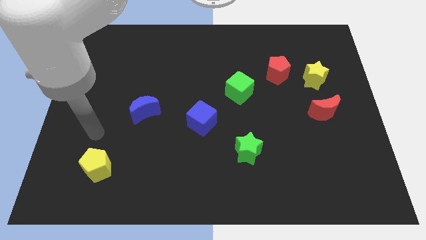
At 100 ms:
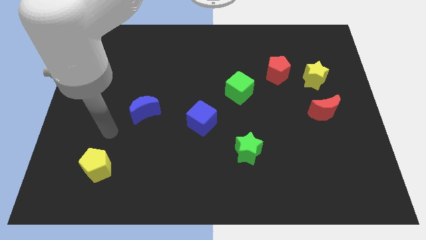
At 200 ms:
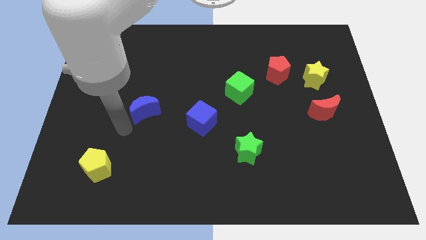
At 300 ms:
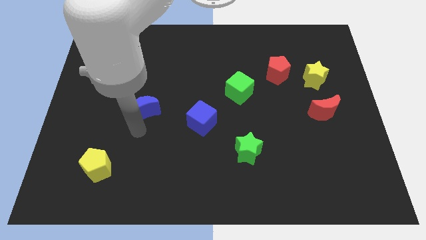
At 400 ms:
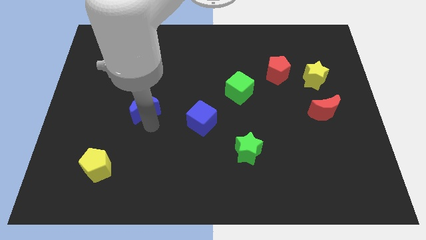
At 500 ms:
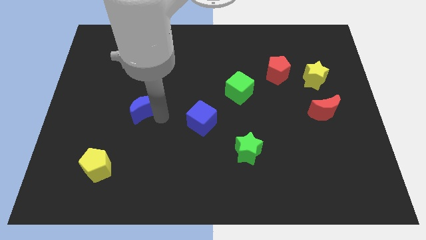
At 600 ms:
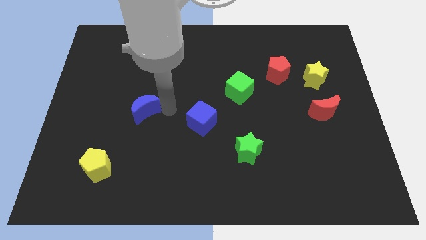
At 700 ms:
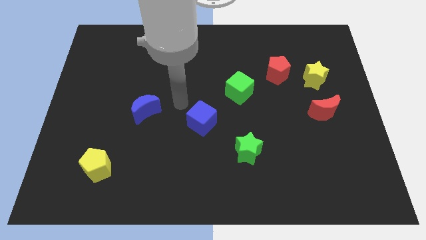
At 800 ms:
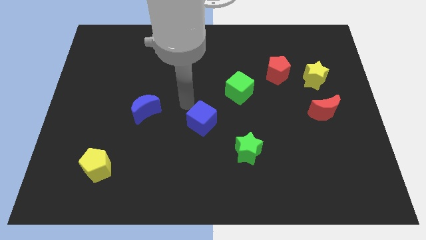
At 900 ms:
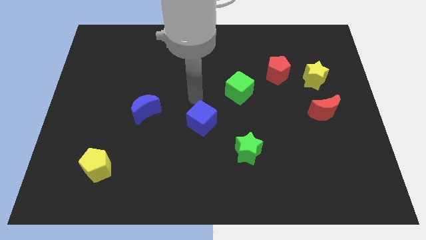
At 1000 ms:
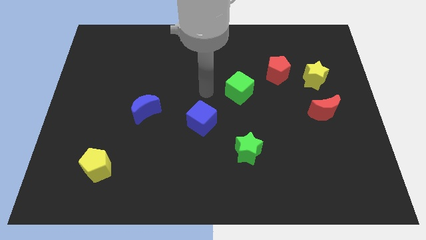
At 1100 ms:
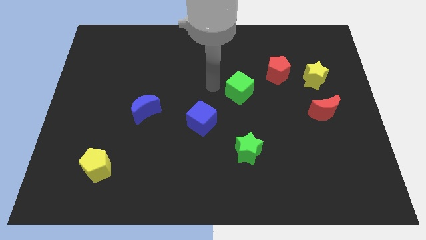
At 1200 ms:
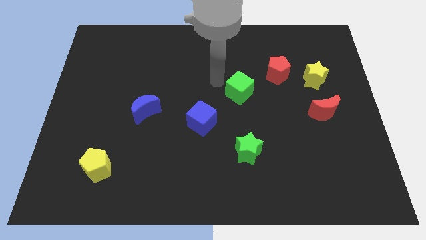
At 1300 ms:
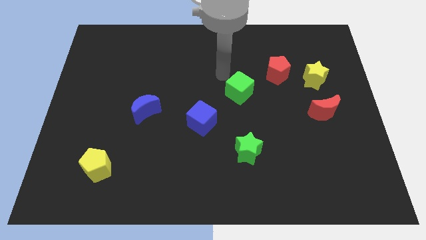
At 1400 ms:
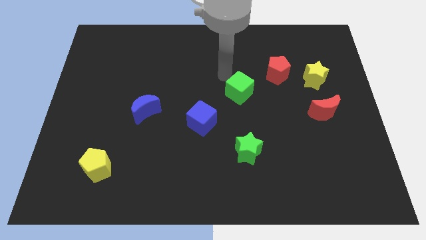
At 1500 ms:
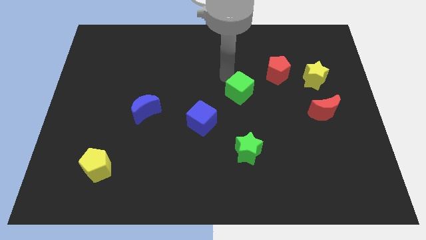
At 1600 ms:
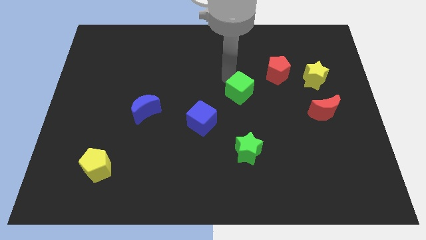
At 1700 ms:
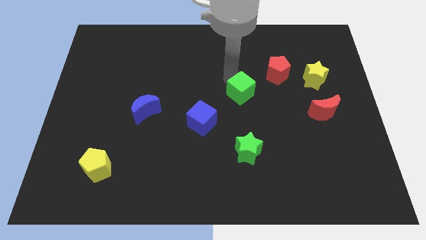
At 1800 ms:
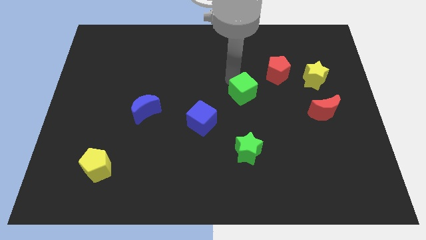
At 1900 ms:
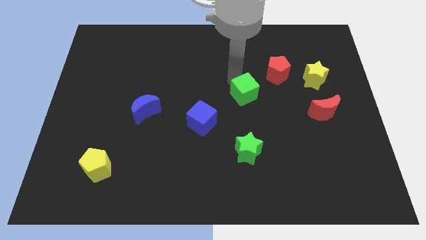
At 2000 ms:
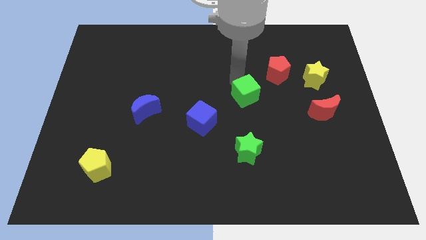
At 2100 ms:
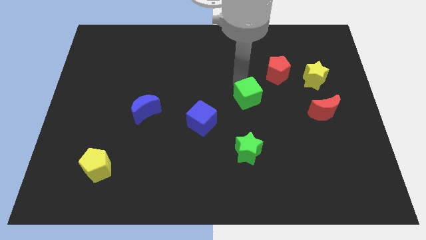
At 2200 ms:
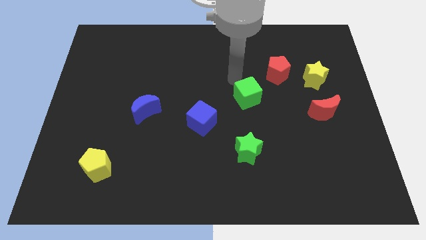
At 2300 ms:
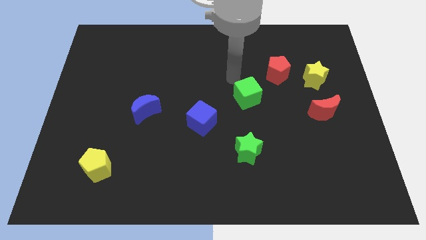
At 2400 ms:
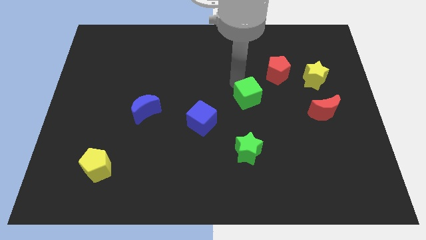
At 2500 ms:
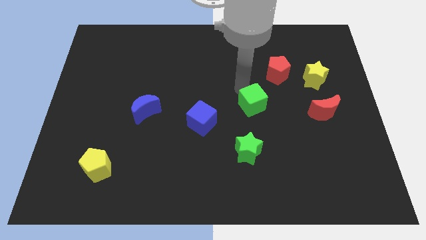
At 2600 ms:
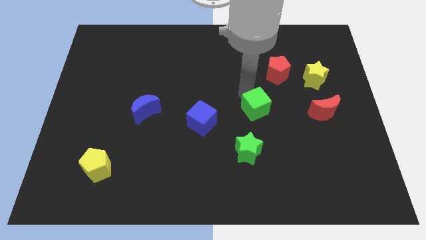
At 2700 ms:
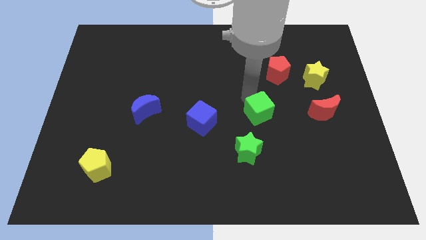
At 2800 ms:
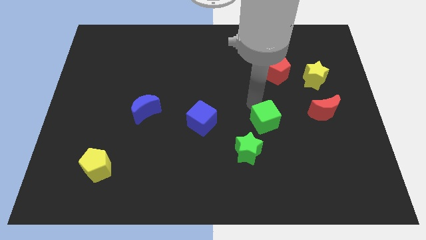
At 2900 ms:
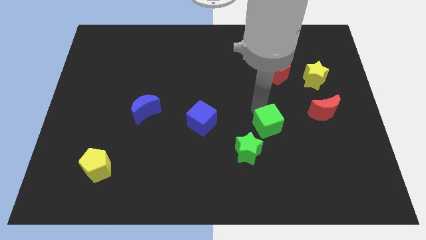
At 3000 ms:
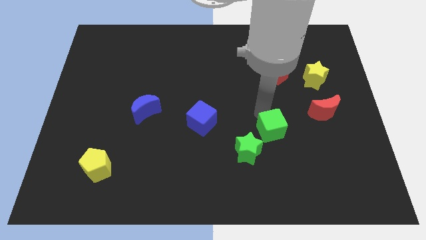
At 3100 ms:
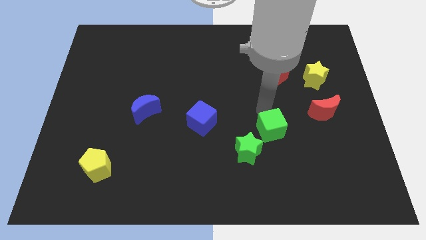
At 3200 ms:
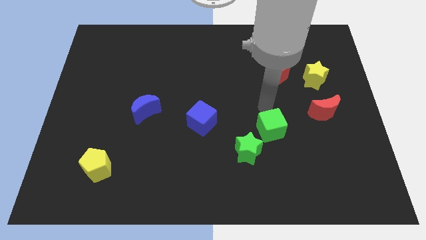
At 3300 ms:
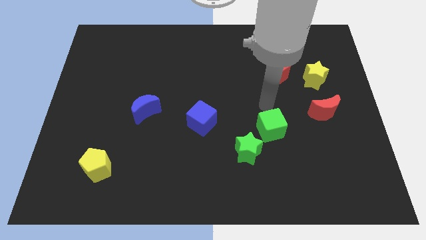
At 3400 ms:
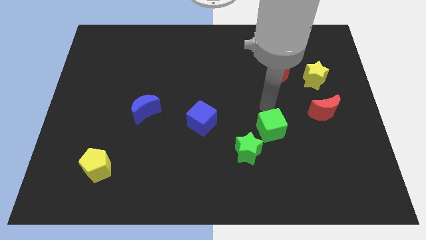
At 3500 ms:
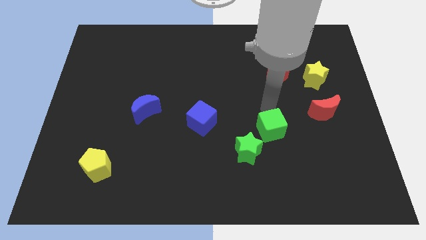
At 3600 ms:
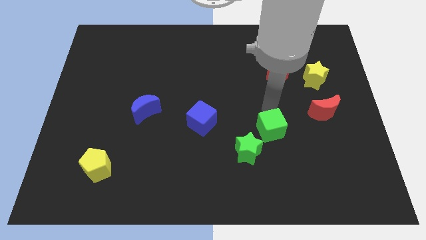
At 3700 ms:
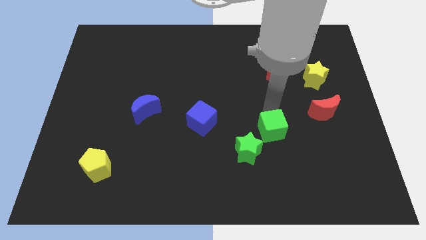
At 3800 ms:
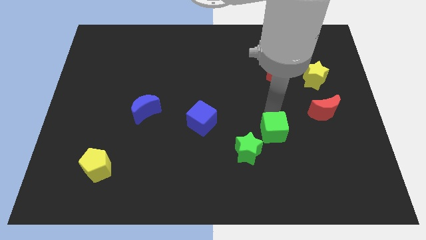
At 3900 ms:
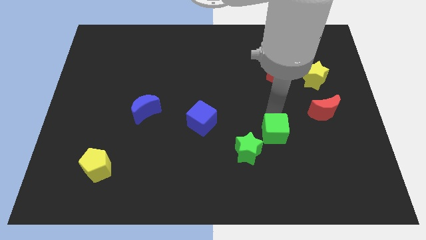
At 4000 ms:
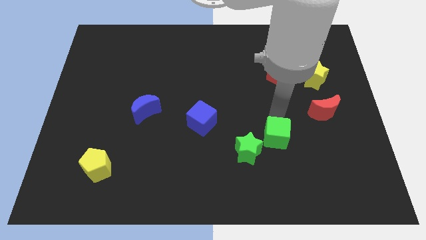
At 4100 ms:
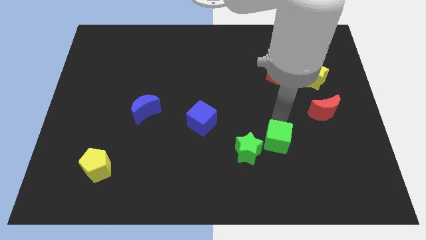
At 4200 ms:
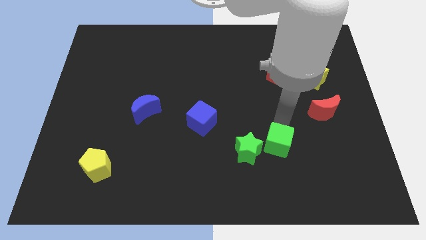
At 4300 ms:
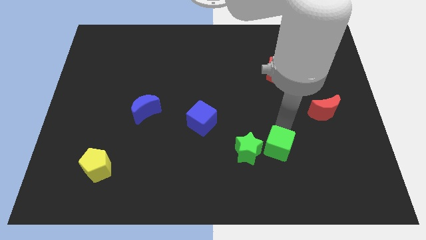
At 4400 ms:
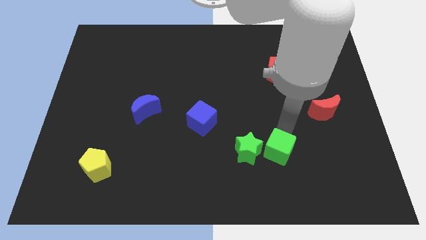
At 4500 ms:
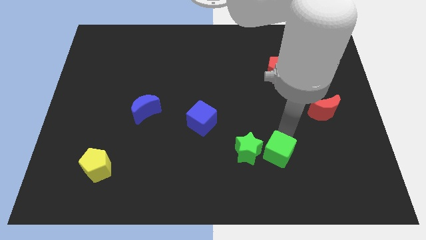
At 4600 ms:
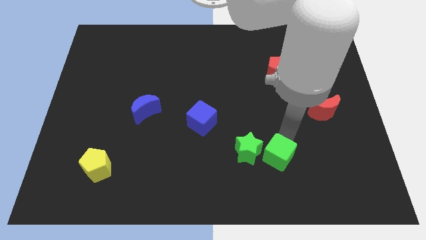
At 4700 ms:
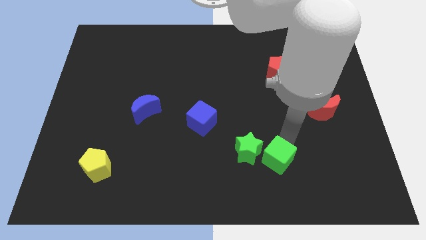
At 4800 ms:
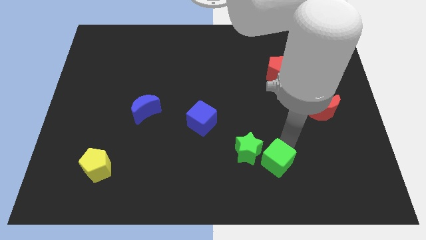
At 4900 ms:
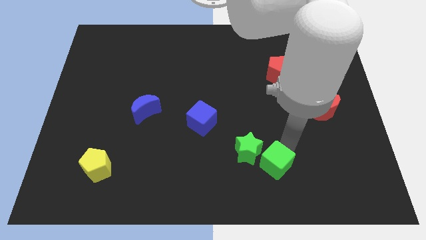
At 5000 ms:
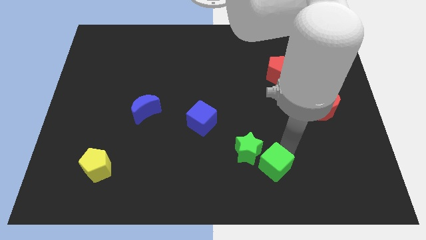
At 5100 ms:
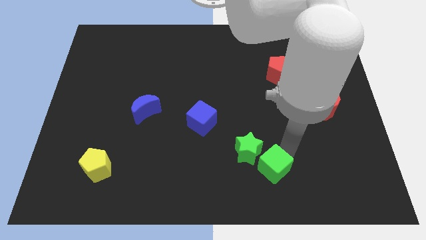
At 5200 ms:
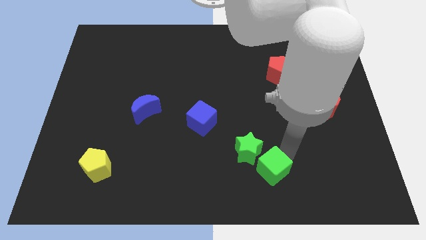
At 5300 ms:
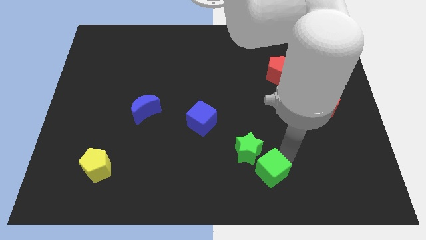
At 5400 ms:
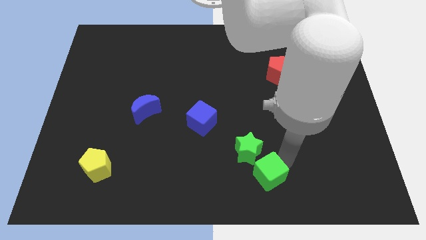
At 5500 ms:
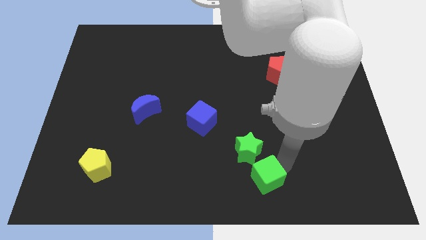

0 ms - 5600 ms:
slide the green cube to the bottom side

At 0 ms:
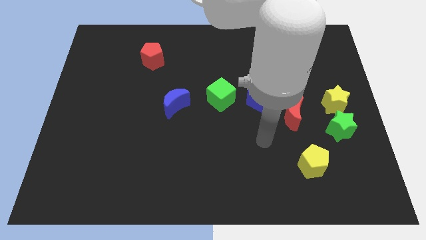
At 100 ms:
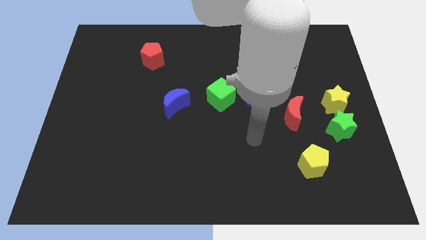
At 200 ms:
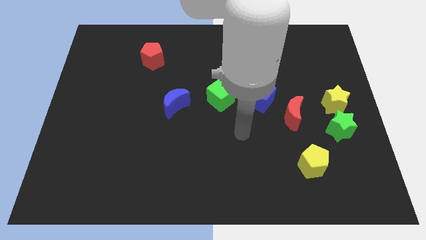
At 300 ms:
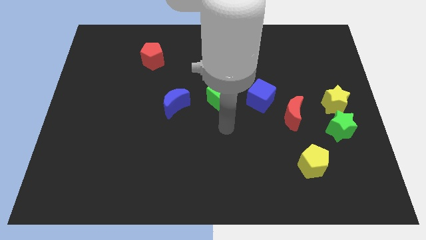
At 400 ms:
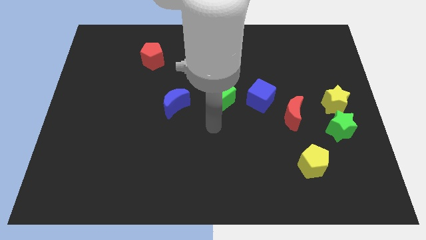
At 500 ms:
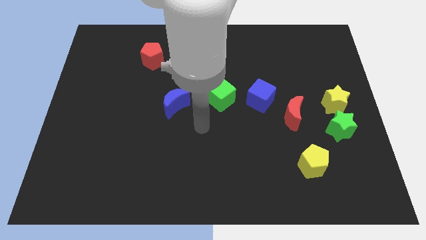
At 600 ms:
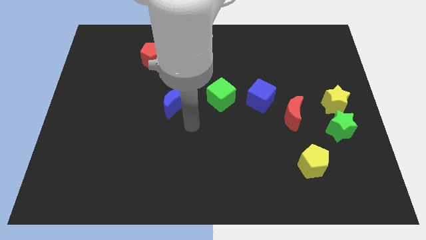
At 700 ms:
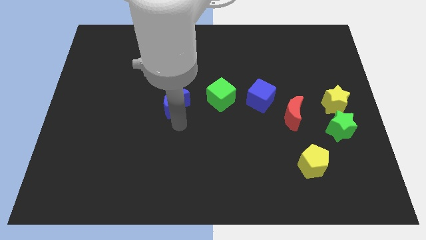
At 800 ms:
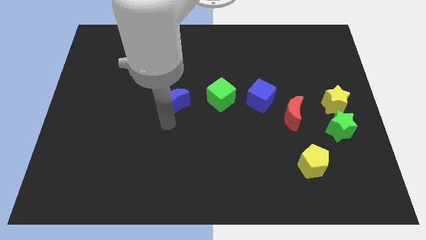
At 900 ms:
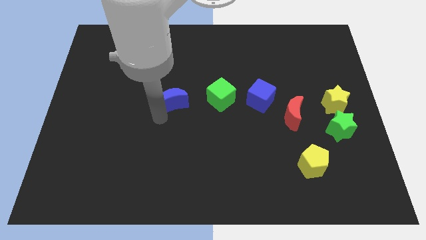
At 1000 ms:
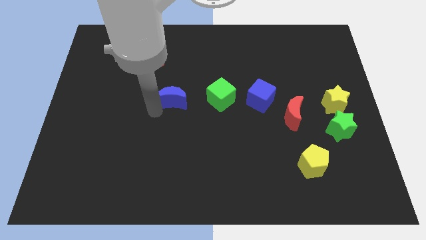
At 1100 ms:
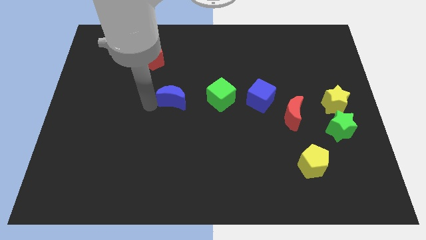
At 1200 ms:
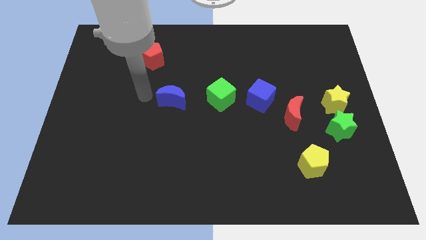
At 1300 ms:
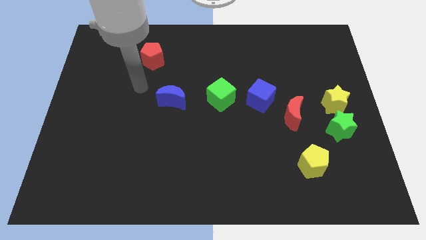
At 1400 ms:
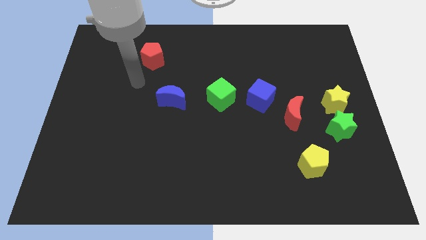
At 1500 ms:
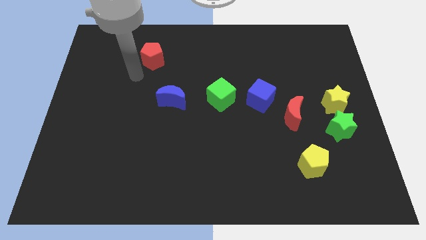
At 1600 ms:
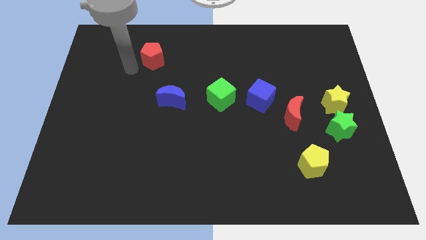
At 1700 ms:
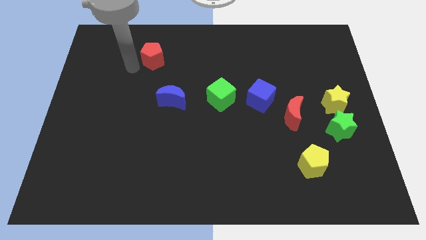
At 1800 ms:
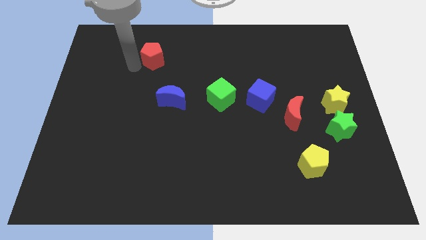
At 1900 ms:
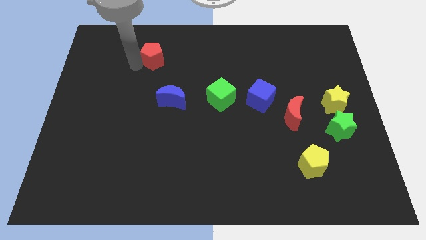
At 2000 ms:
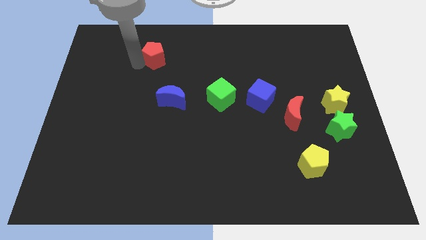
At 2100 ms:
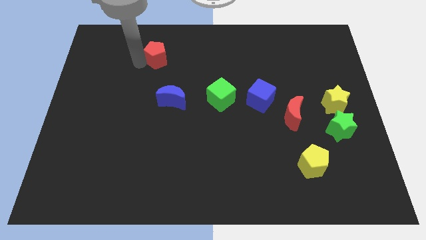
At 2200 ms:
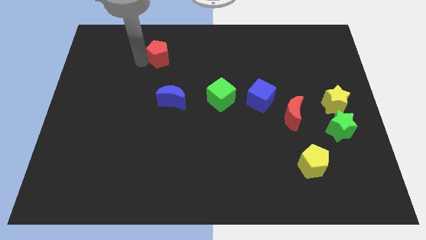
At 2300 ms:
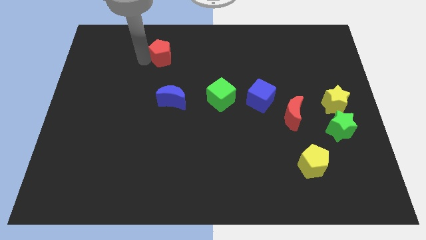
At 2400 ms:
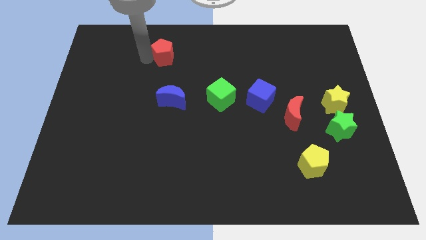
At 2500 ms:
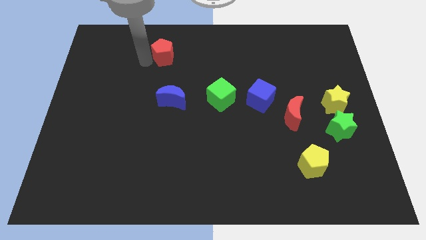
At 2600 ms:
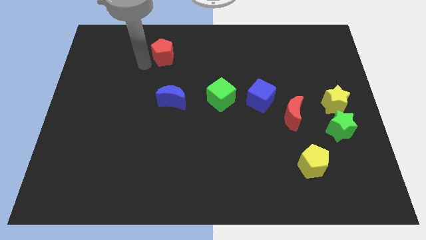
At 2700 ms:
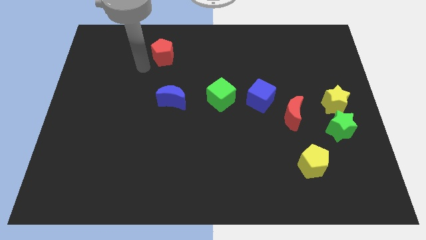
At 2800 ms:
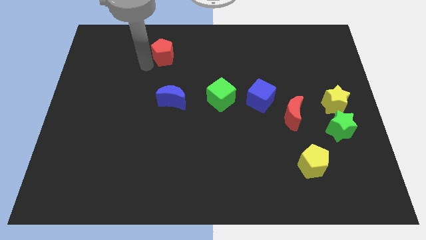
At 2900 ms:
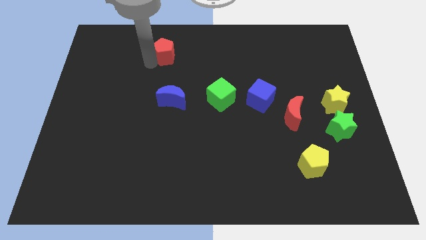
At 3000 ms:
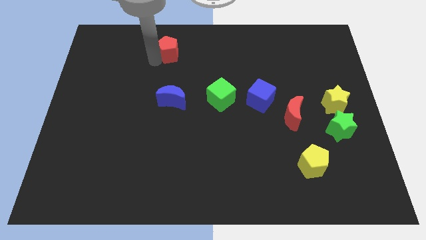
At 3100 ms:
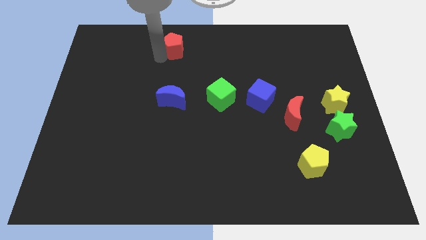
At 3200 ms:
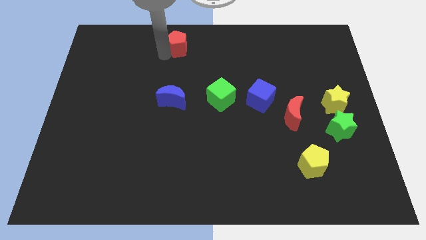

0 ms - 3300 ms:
put the red pentagon to the top side
